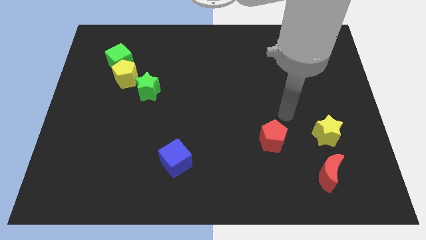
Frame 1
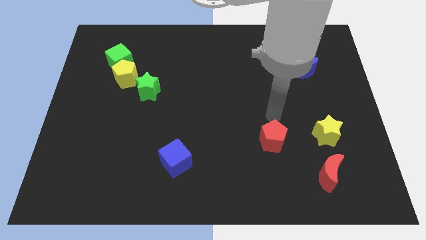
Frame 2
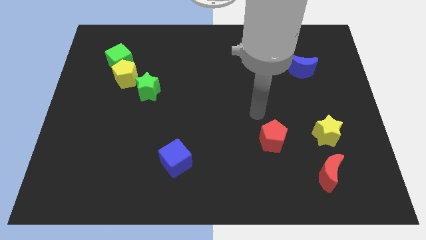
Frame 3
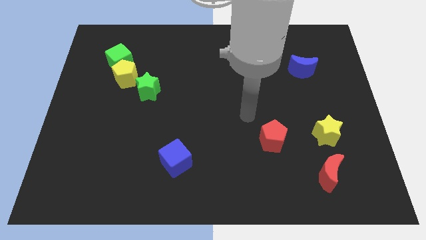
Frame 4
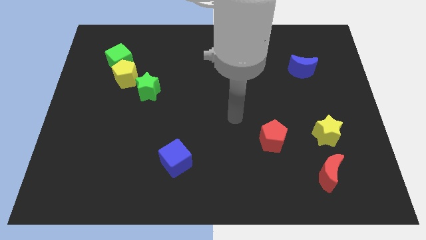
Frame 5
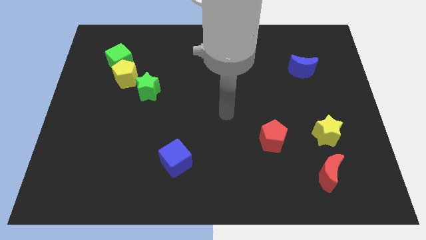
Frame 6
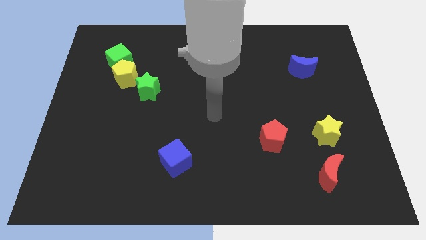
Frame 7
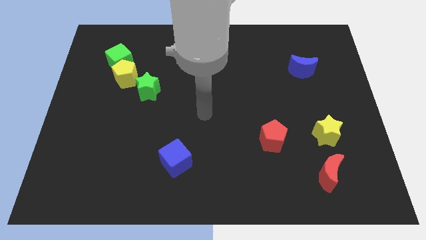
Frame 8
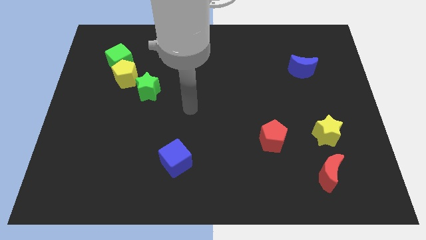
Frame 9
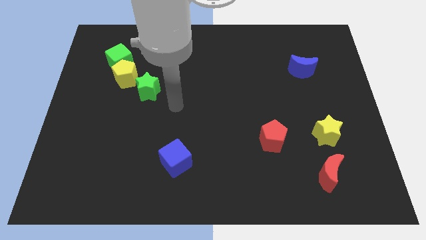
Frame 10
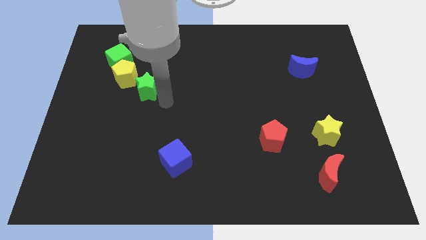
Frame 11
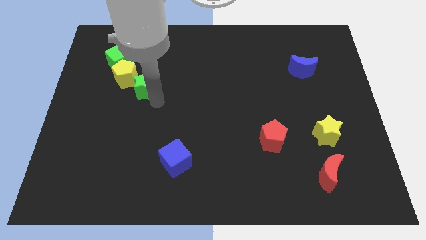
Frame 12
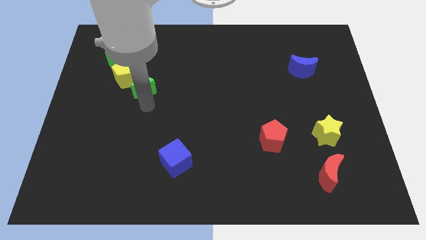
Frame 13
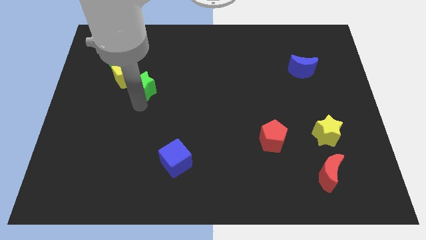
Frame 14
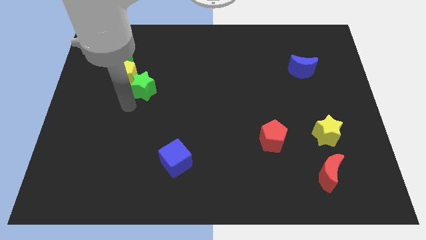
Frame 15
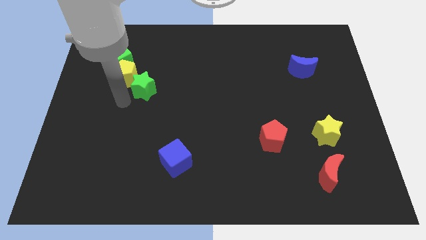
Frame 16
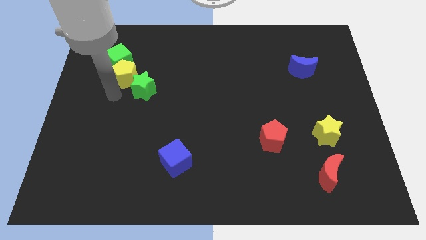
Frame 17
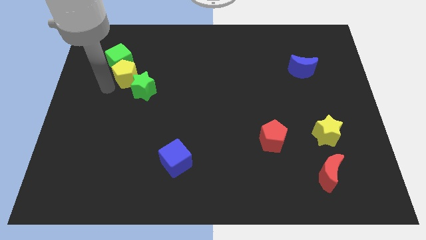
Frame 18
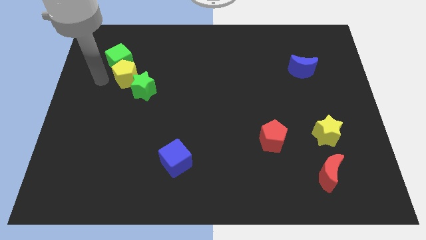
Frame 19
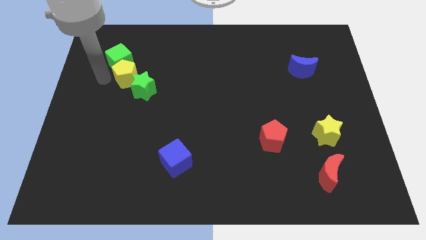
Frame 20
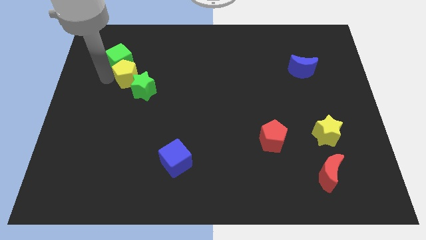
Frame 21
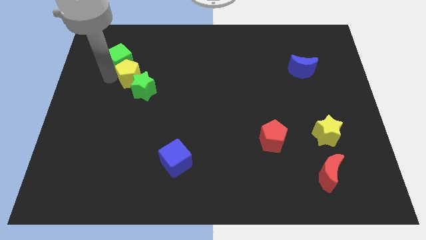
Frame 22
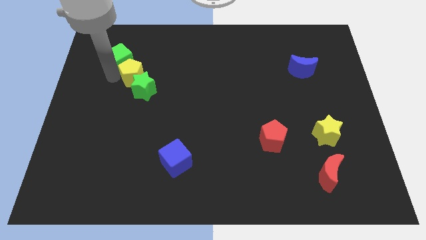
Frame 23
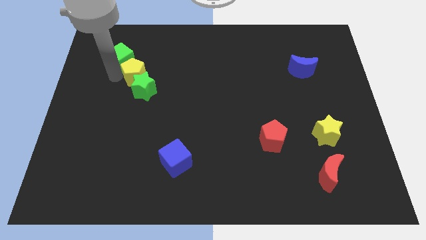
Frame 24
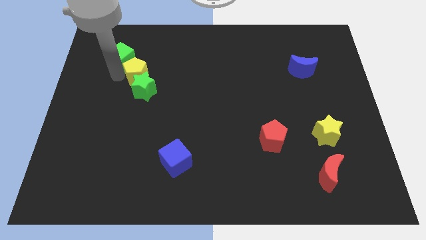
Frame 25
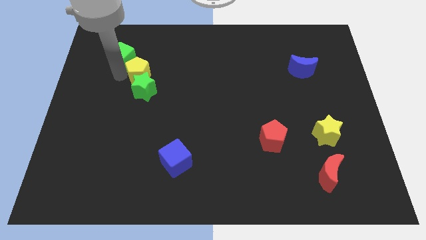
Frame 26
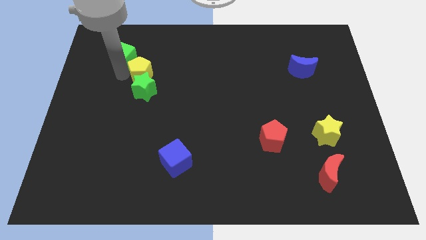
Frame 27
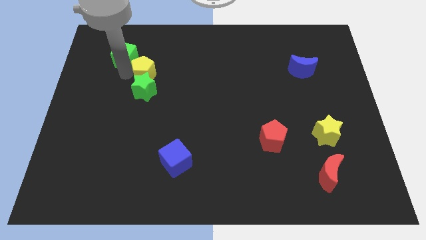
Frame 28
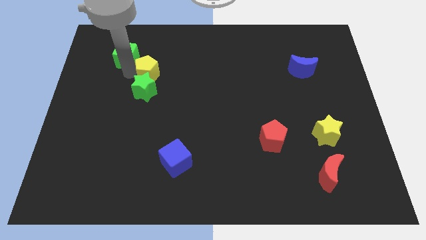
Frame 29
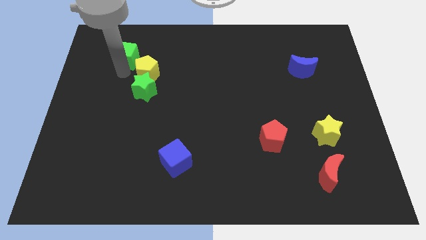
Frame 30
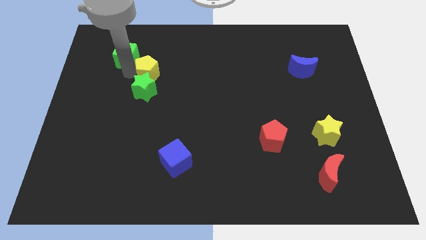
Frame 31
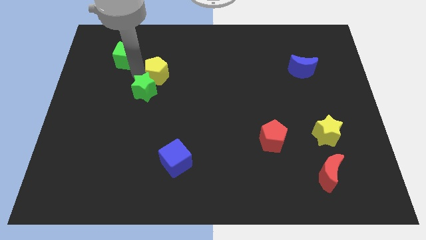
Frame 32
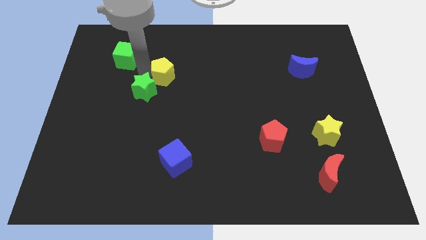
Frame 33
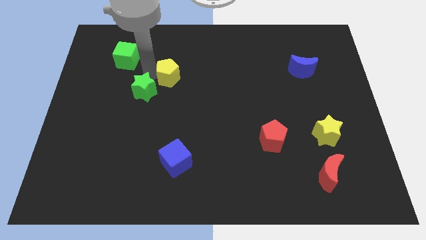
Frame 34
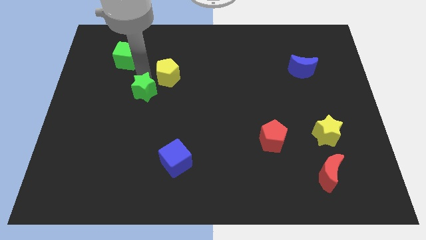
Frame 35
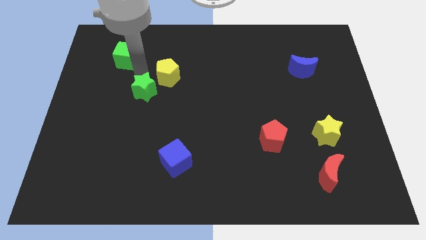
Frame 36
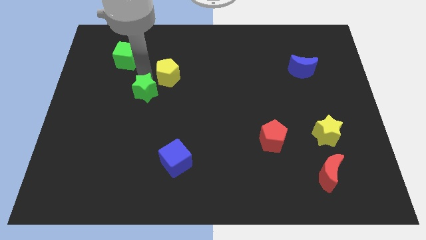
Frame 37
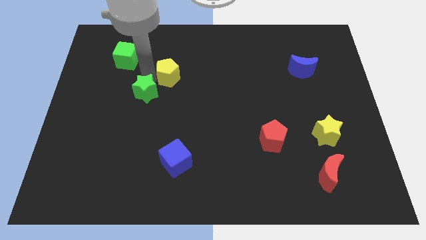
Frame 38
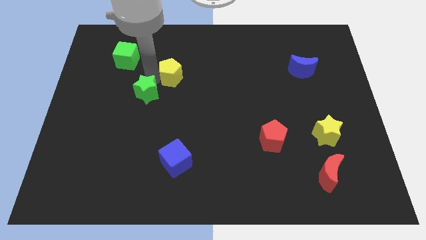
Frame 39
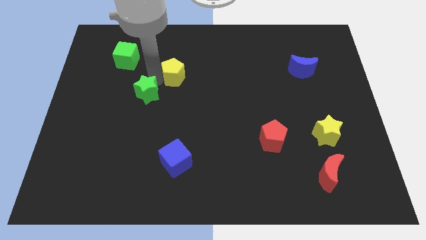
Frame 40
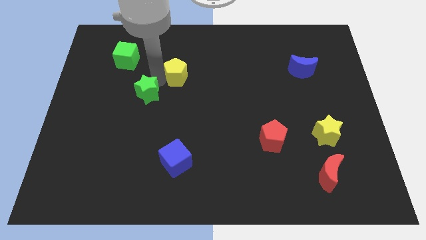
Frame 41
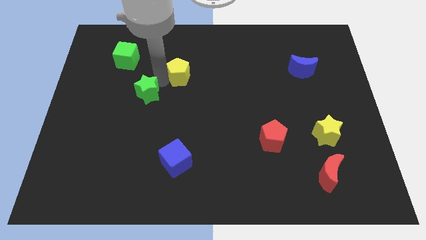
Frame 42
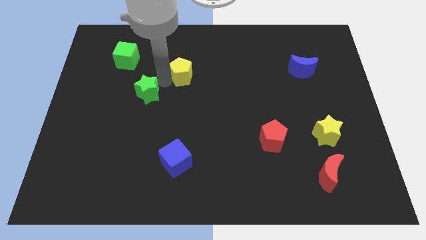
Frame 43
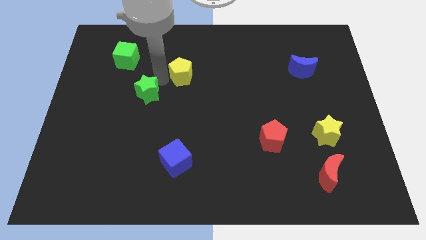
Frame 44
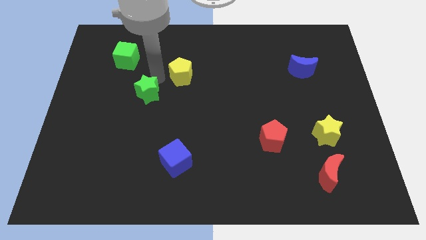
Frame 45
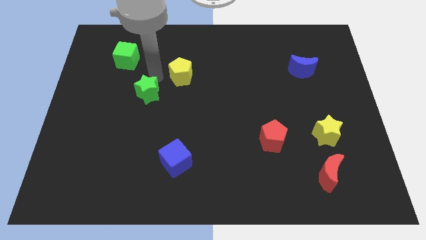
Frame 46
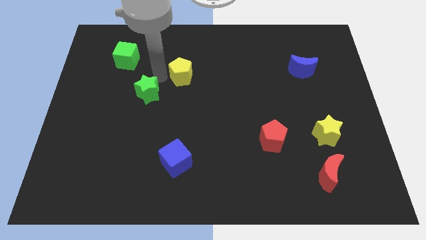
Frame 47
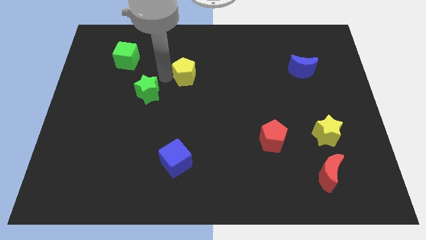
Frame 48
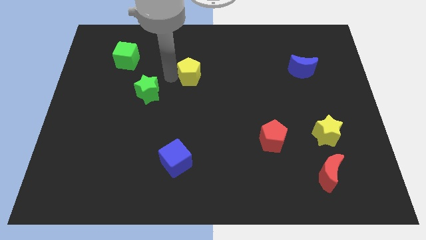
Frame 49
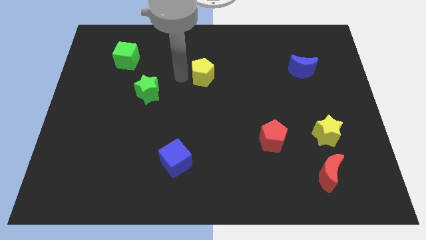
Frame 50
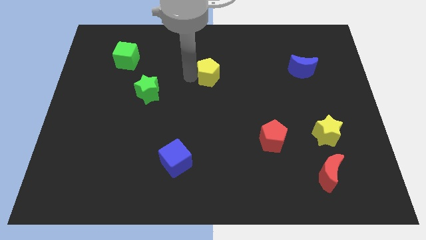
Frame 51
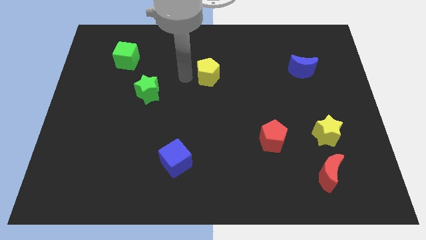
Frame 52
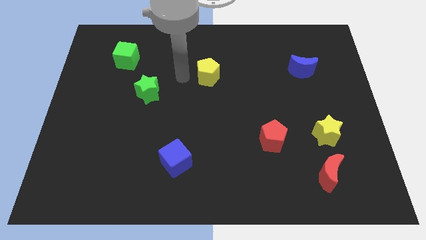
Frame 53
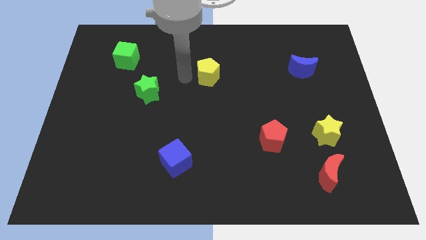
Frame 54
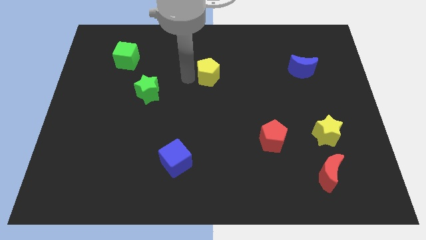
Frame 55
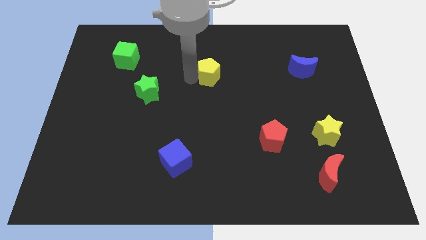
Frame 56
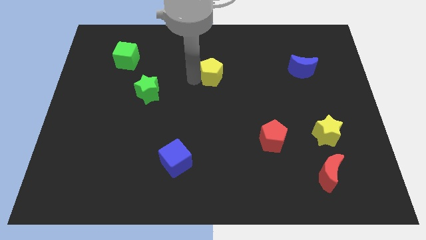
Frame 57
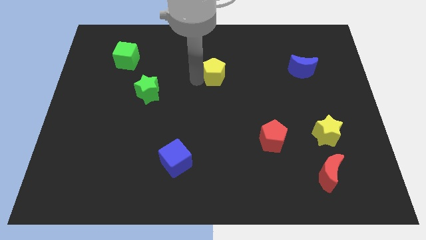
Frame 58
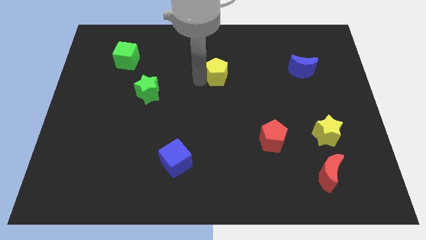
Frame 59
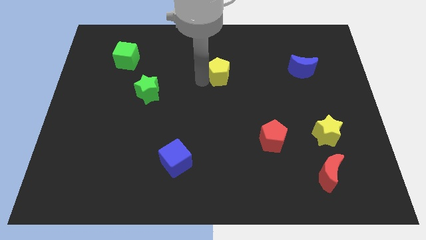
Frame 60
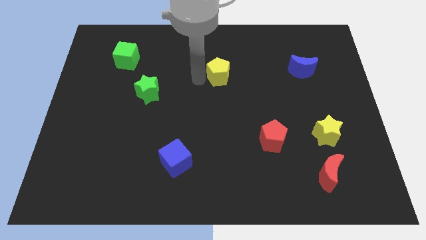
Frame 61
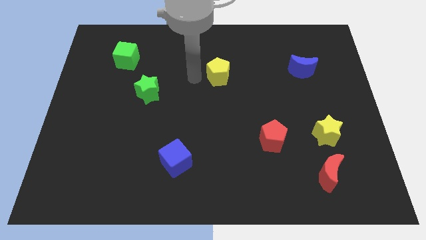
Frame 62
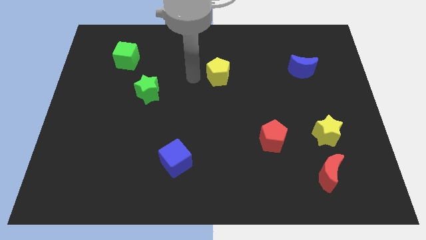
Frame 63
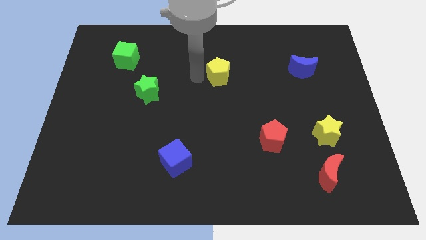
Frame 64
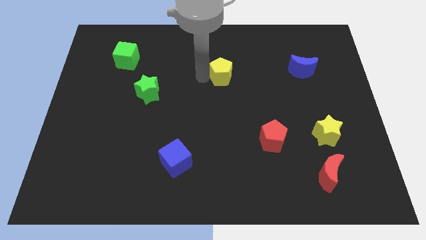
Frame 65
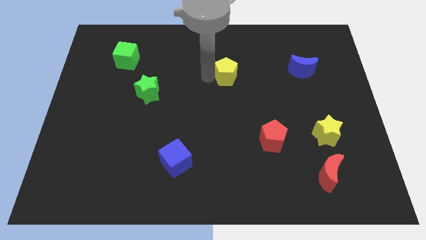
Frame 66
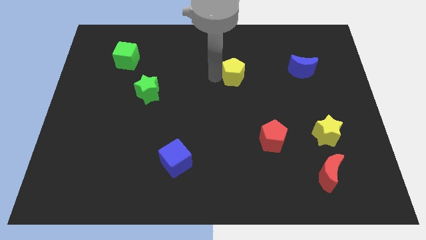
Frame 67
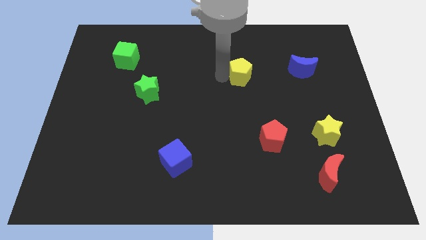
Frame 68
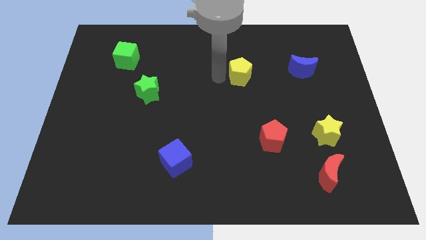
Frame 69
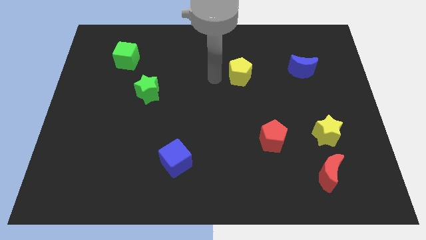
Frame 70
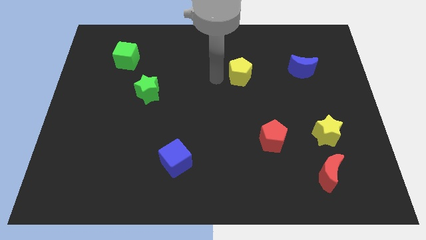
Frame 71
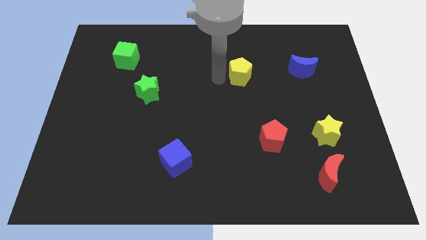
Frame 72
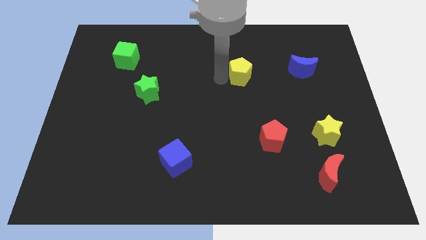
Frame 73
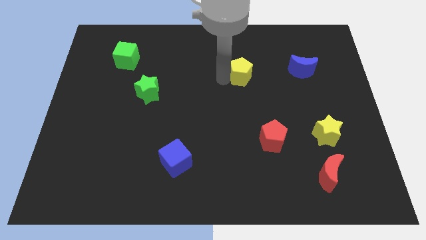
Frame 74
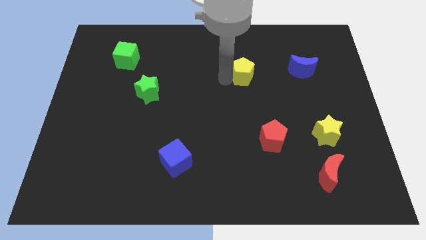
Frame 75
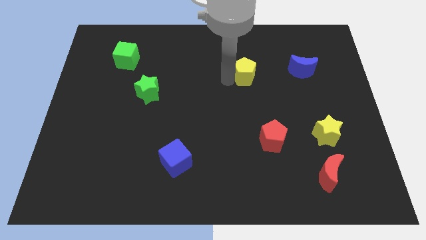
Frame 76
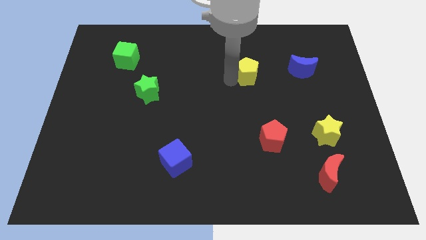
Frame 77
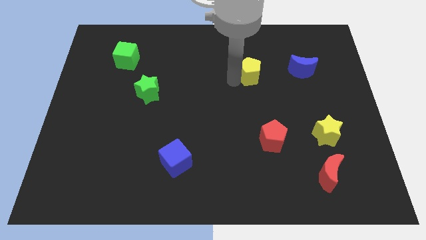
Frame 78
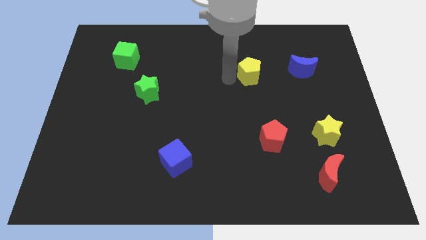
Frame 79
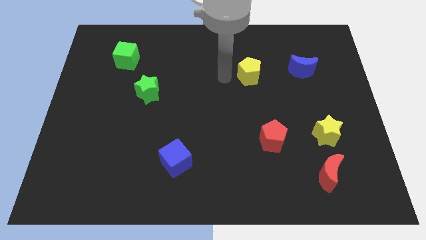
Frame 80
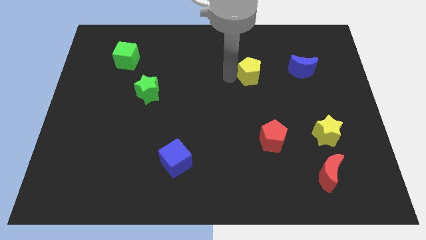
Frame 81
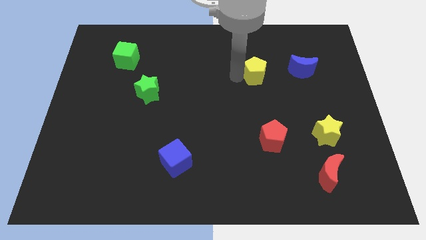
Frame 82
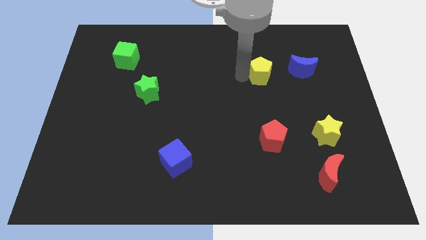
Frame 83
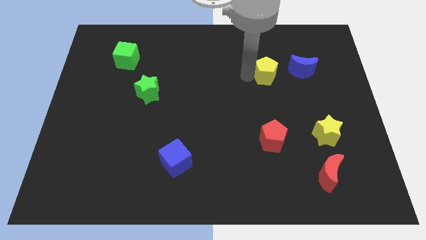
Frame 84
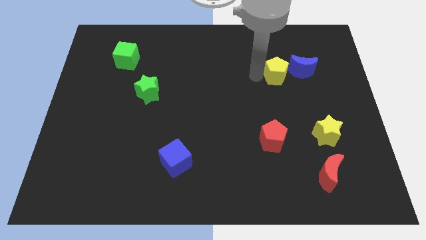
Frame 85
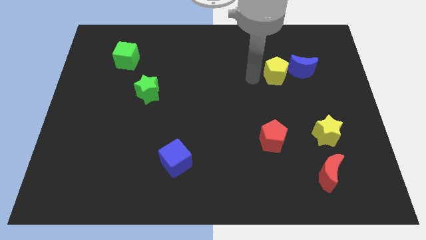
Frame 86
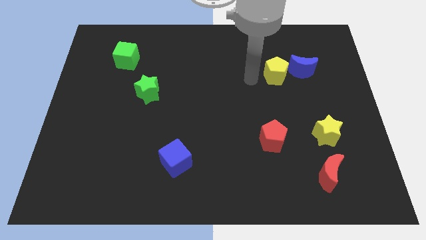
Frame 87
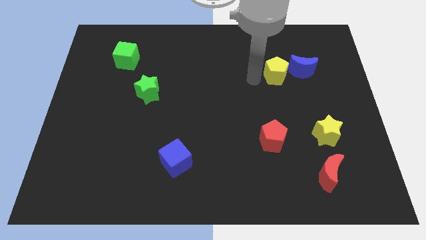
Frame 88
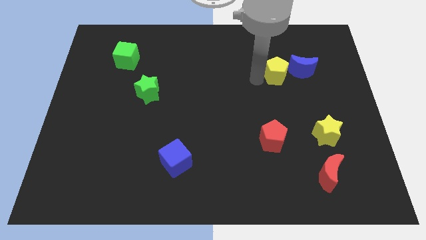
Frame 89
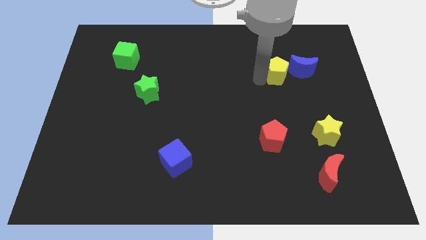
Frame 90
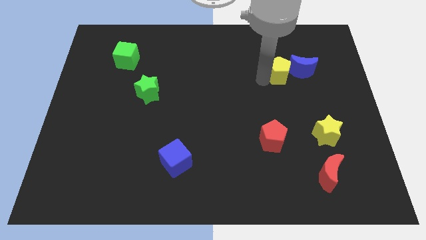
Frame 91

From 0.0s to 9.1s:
push the yellow pentagon next to the blue moon
